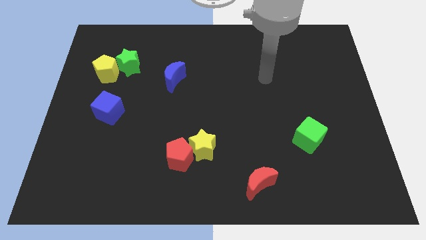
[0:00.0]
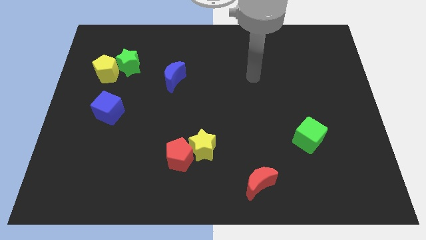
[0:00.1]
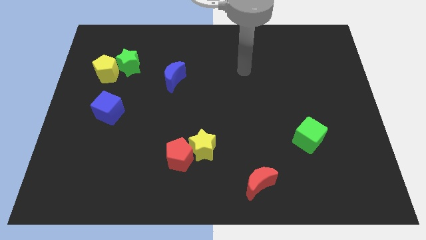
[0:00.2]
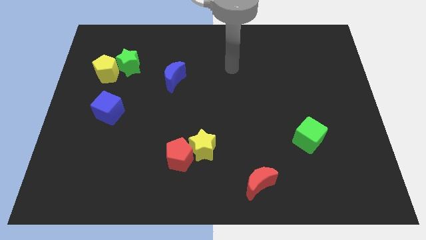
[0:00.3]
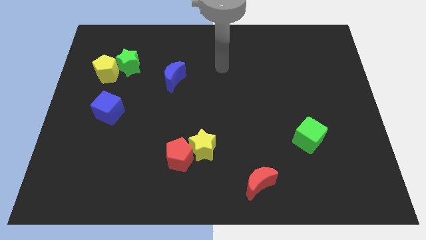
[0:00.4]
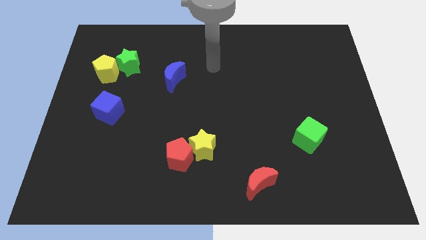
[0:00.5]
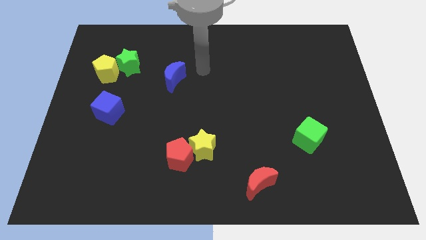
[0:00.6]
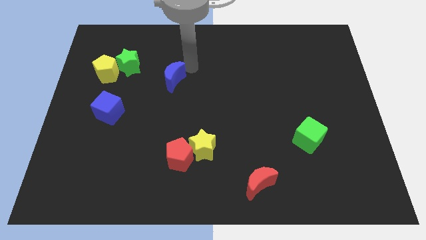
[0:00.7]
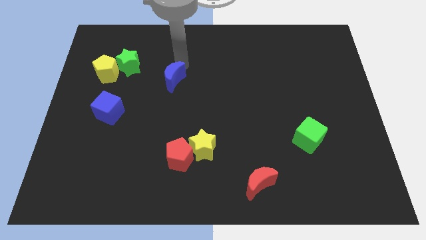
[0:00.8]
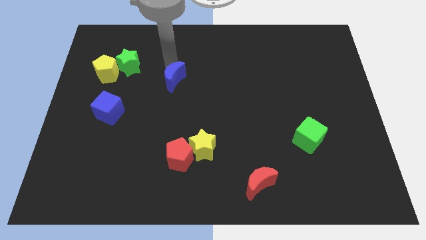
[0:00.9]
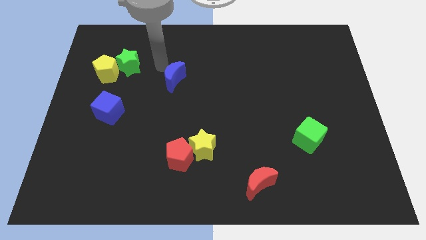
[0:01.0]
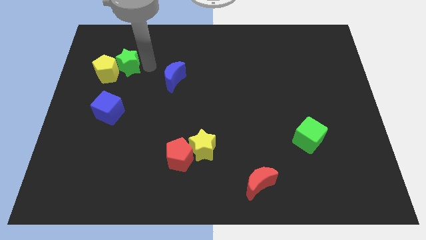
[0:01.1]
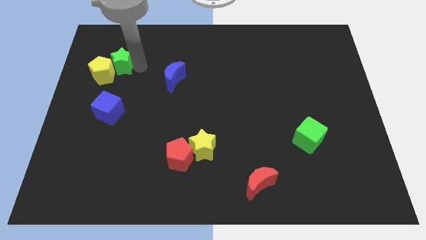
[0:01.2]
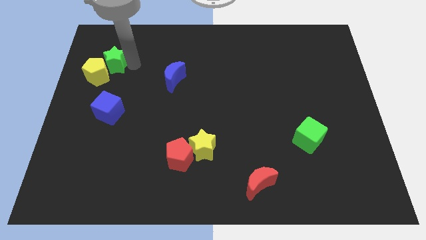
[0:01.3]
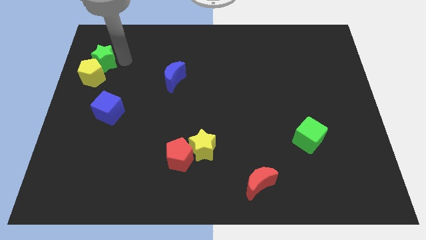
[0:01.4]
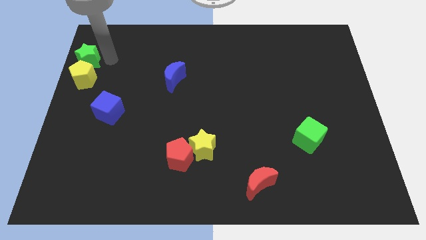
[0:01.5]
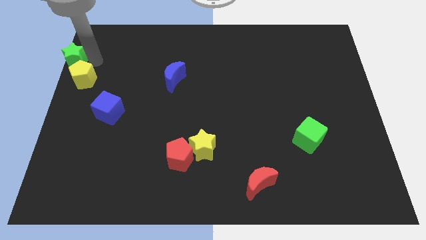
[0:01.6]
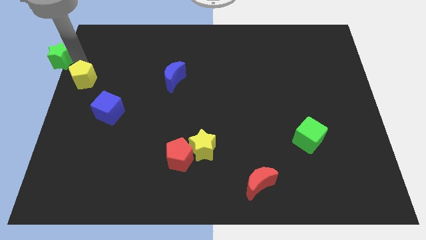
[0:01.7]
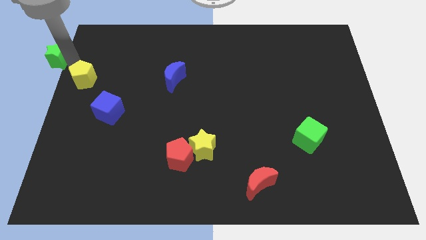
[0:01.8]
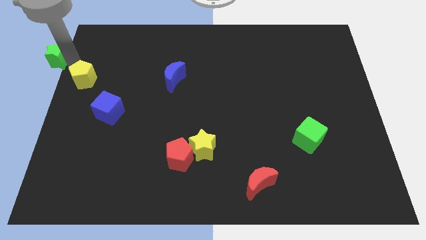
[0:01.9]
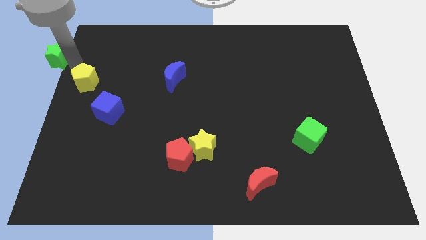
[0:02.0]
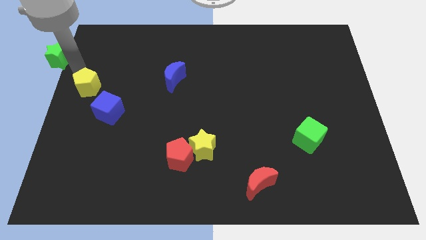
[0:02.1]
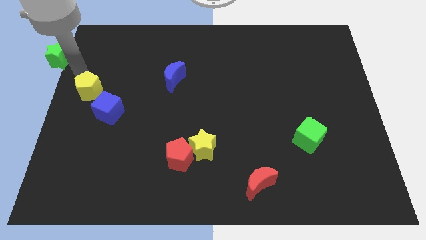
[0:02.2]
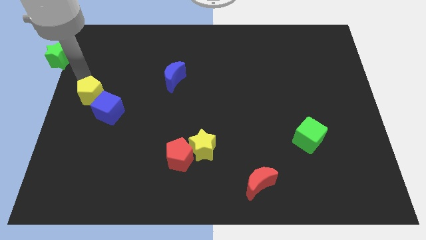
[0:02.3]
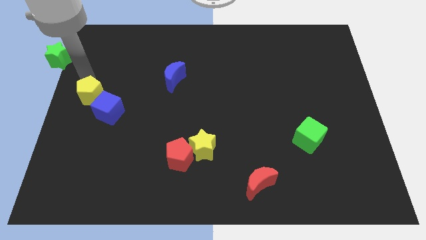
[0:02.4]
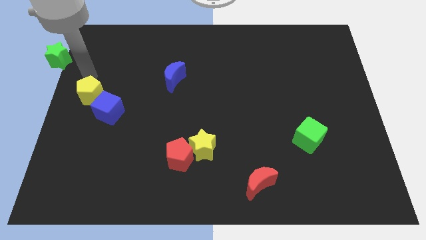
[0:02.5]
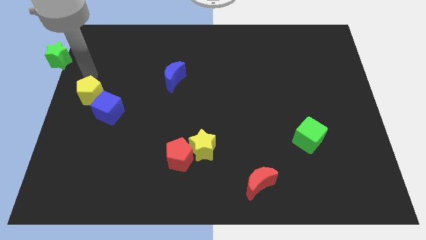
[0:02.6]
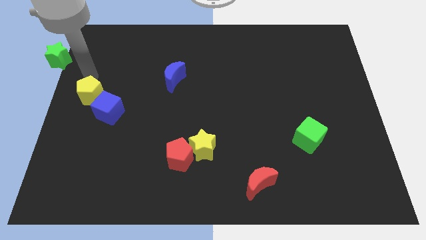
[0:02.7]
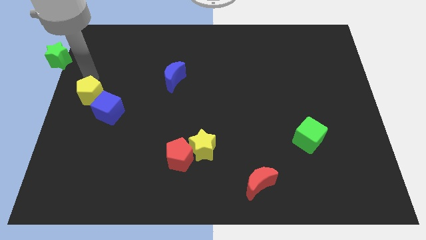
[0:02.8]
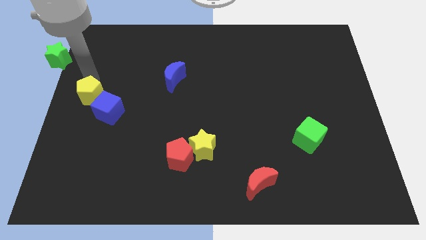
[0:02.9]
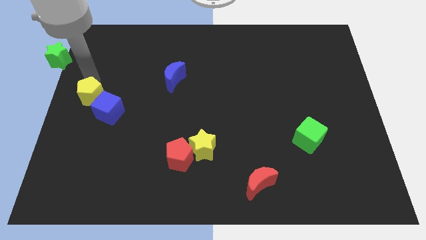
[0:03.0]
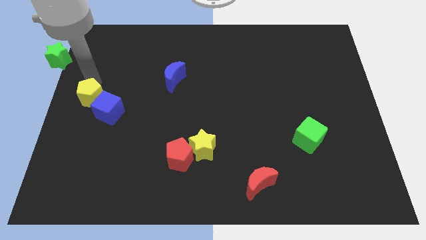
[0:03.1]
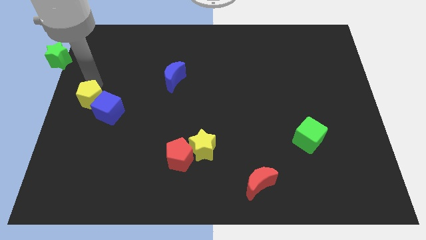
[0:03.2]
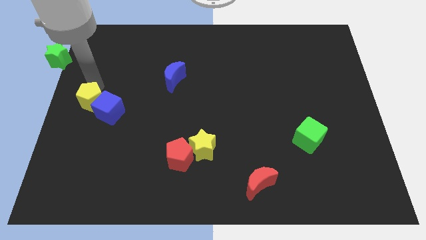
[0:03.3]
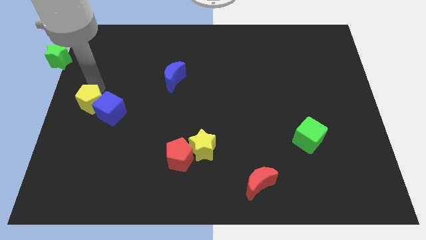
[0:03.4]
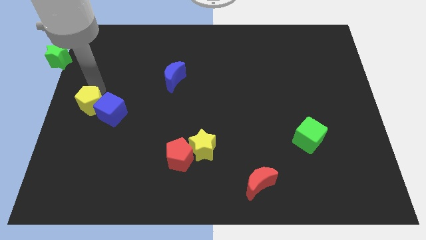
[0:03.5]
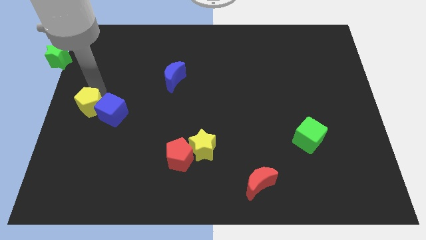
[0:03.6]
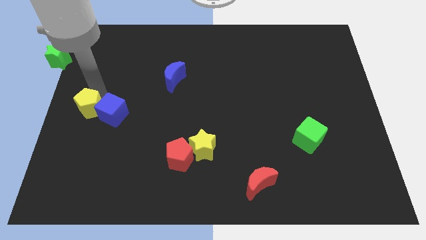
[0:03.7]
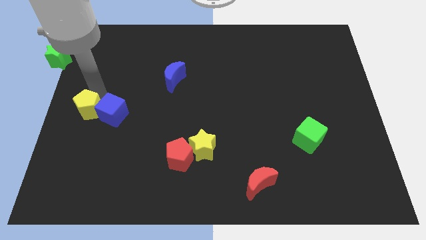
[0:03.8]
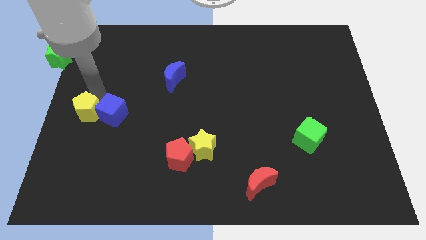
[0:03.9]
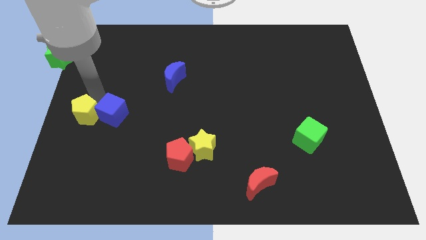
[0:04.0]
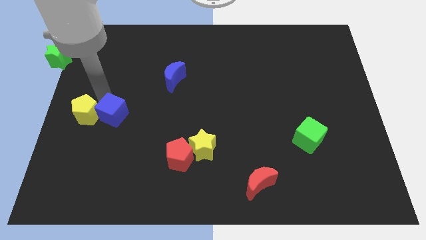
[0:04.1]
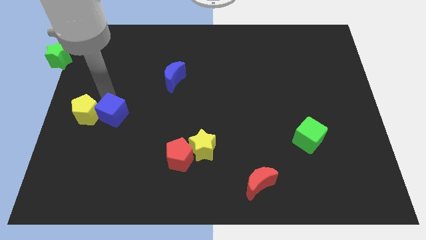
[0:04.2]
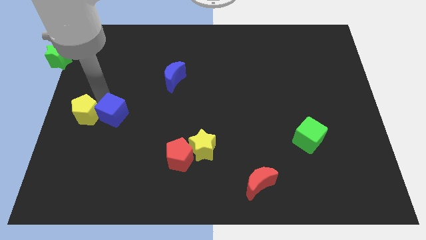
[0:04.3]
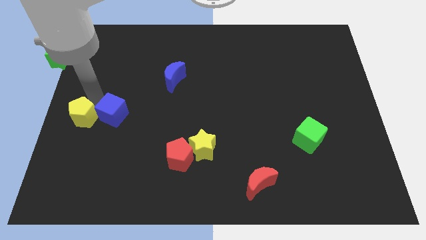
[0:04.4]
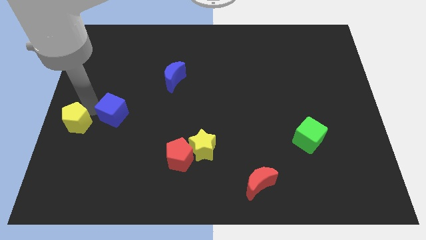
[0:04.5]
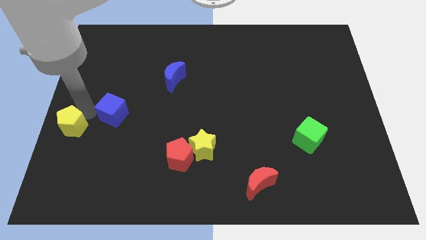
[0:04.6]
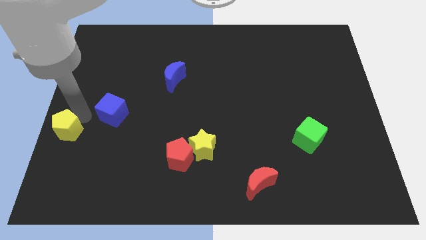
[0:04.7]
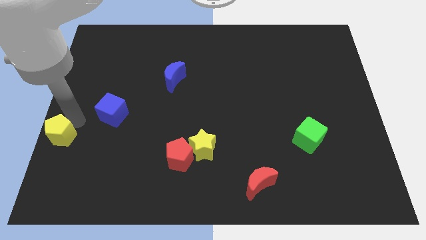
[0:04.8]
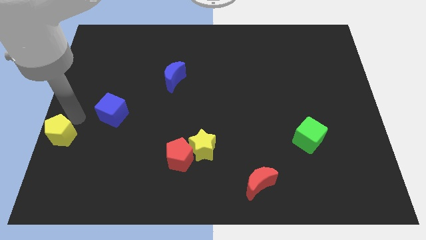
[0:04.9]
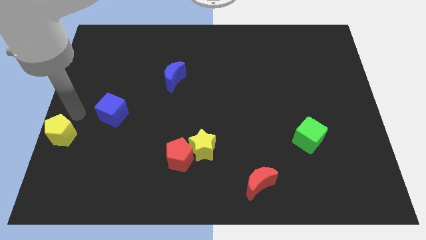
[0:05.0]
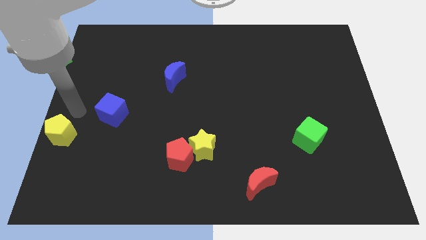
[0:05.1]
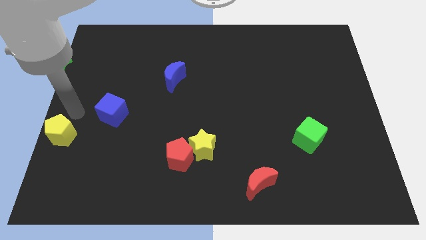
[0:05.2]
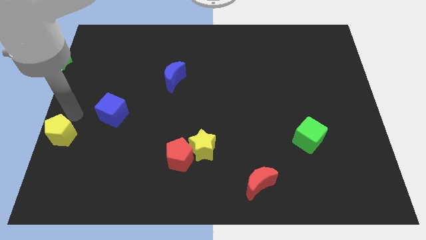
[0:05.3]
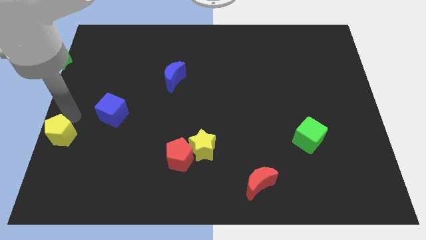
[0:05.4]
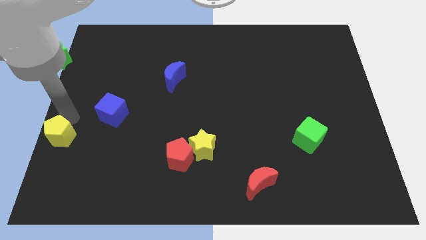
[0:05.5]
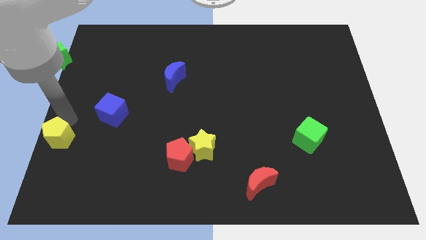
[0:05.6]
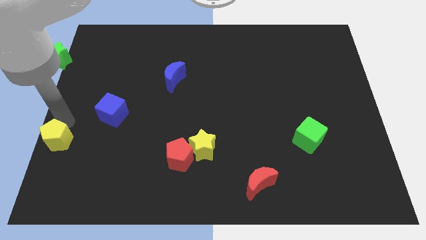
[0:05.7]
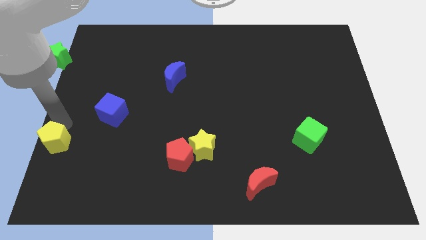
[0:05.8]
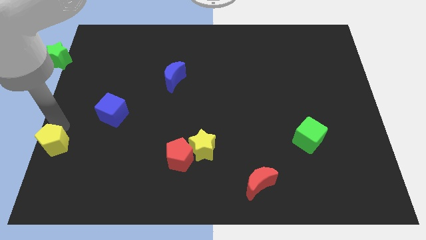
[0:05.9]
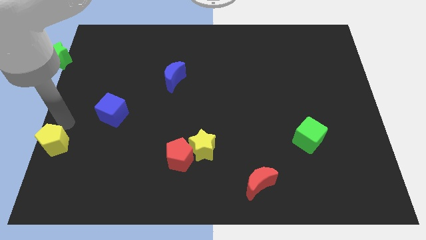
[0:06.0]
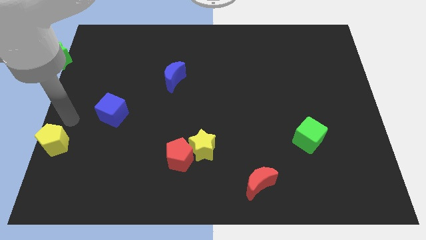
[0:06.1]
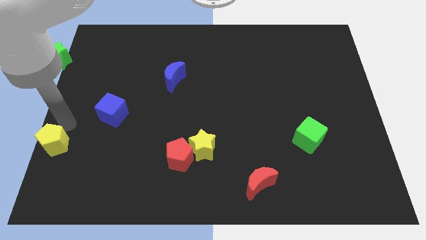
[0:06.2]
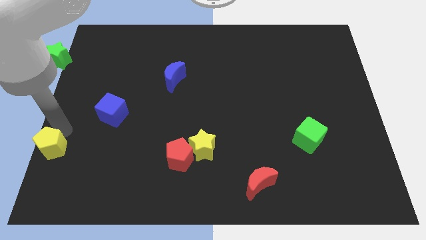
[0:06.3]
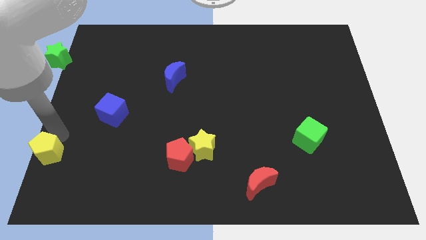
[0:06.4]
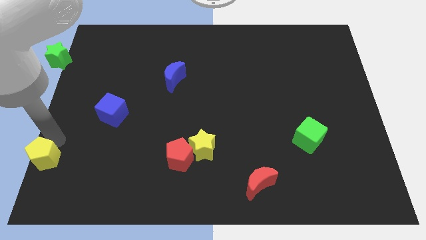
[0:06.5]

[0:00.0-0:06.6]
slide the yellow pentagon to the bottom left
